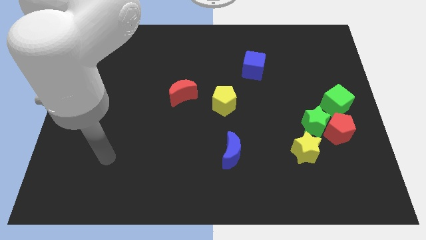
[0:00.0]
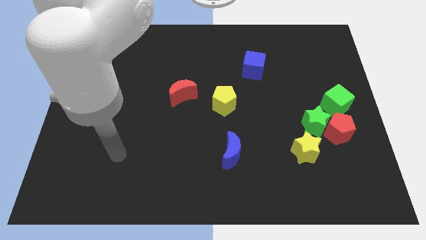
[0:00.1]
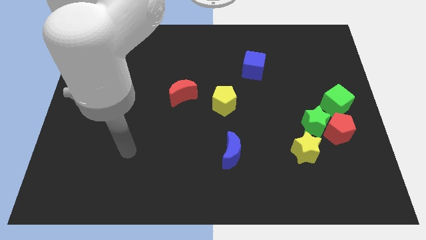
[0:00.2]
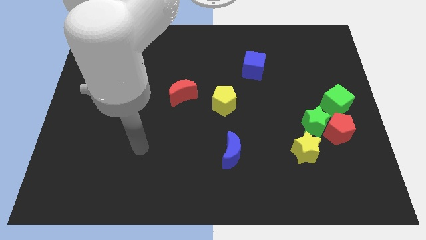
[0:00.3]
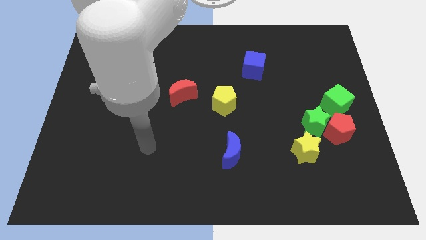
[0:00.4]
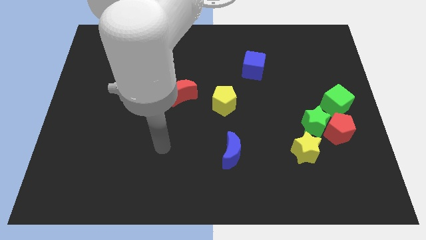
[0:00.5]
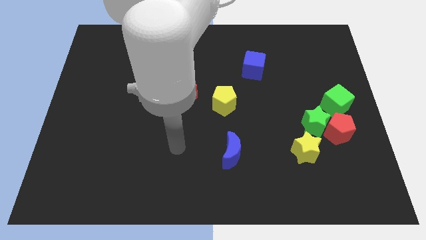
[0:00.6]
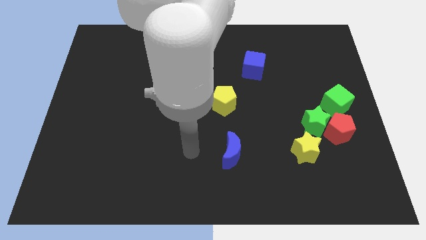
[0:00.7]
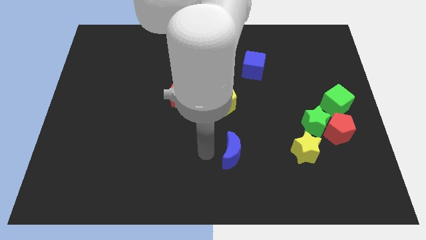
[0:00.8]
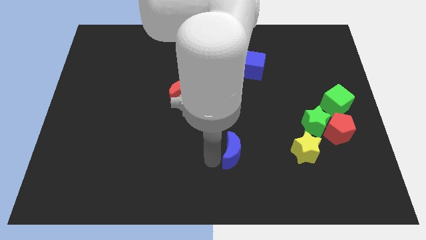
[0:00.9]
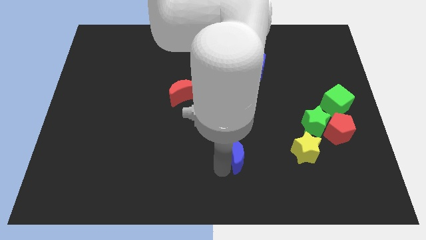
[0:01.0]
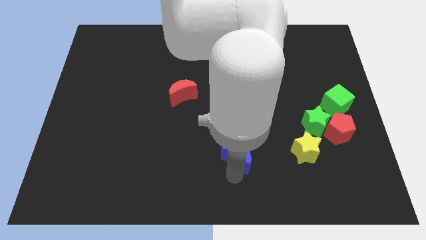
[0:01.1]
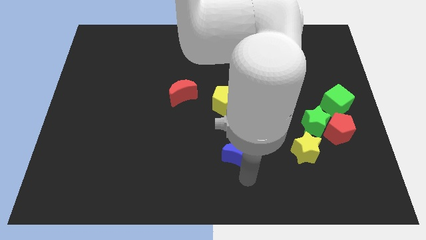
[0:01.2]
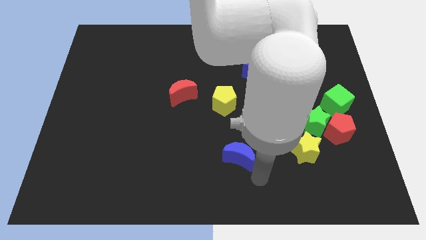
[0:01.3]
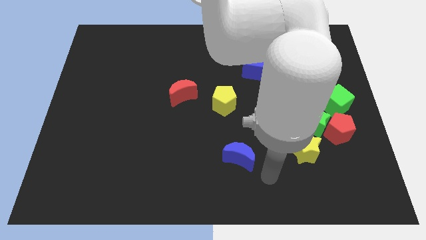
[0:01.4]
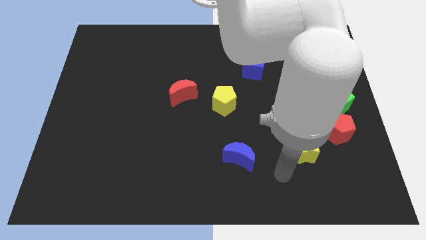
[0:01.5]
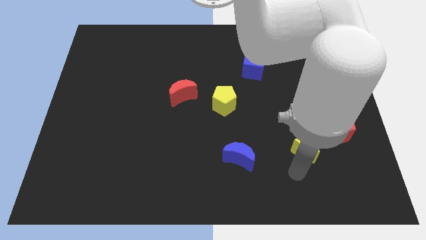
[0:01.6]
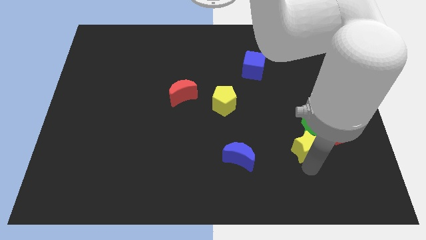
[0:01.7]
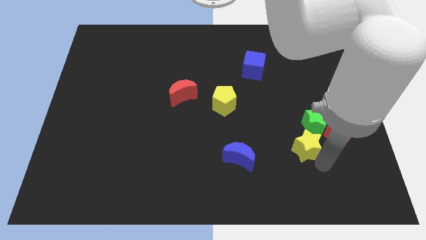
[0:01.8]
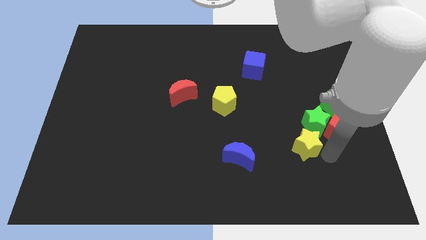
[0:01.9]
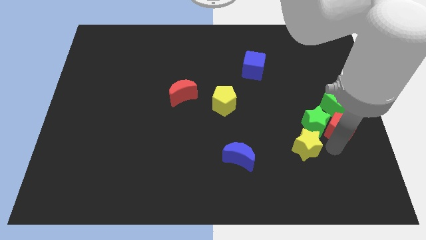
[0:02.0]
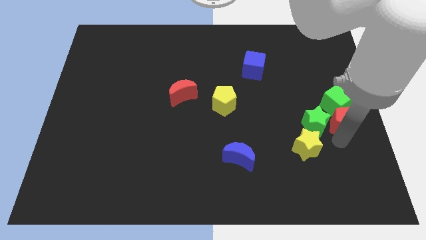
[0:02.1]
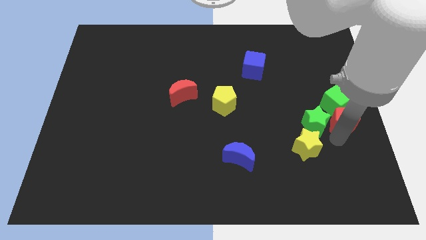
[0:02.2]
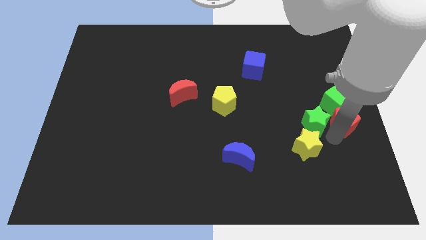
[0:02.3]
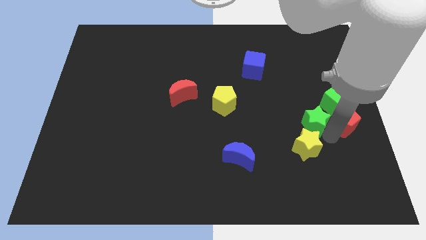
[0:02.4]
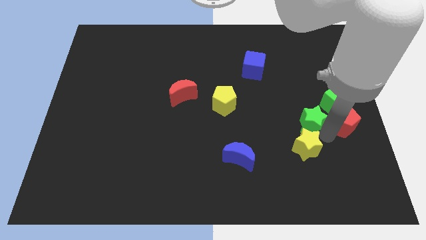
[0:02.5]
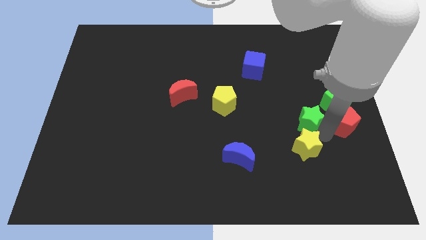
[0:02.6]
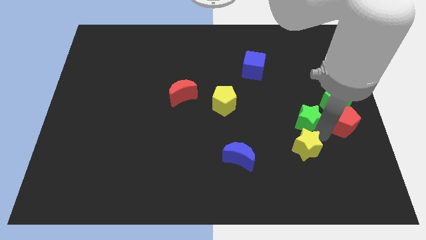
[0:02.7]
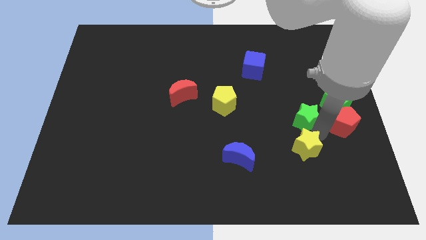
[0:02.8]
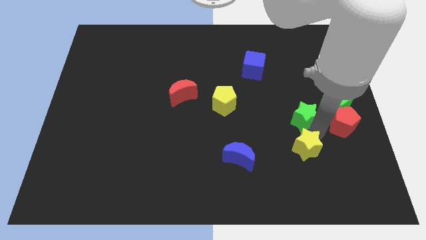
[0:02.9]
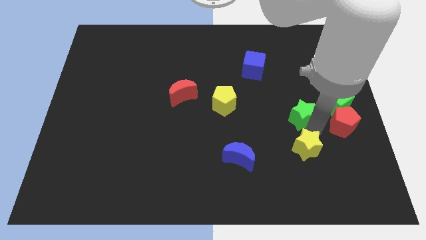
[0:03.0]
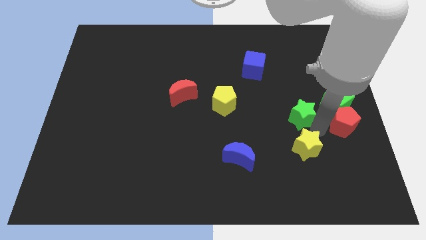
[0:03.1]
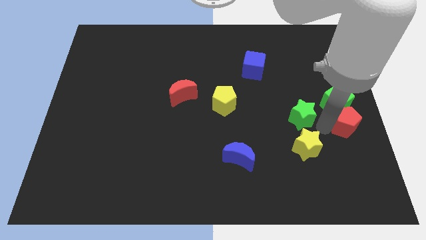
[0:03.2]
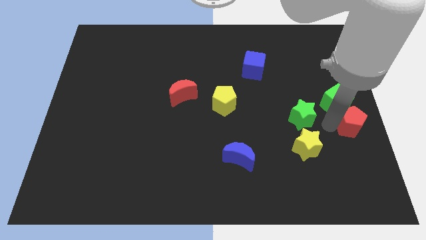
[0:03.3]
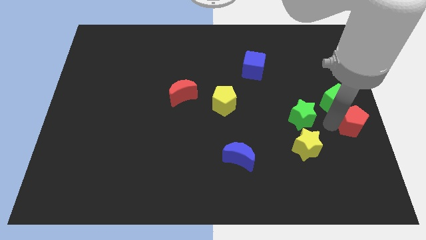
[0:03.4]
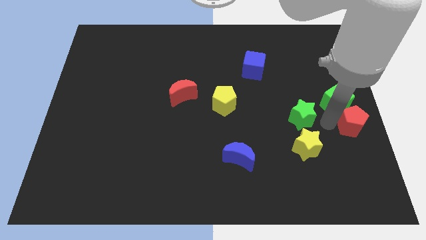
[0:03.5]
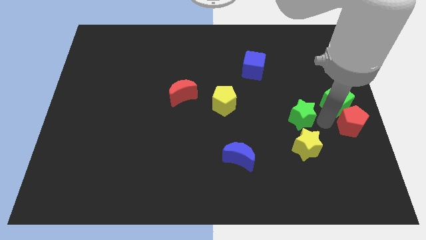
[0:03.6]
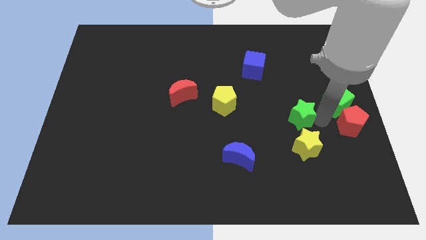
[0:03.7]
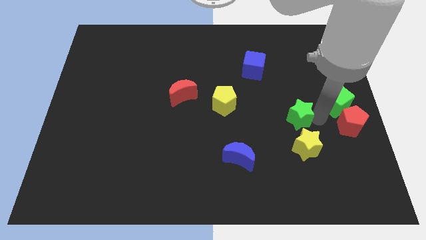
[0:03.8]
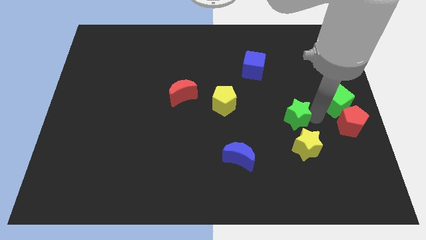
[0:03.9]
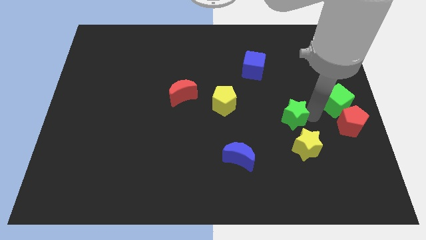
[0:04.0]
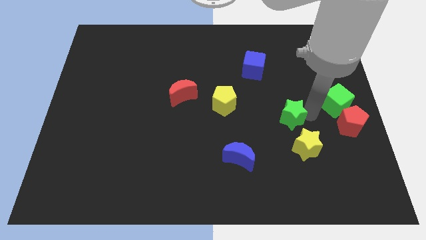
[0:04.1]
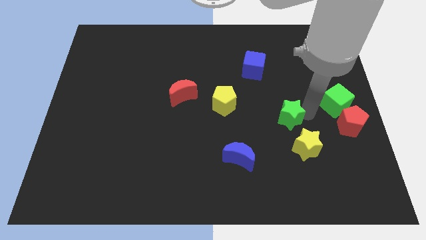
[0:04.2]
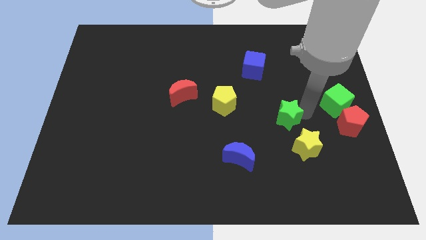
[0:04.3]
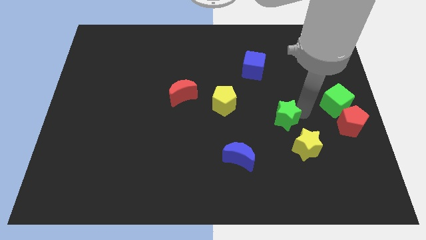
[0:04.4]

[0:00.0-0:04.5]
pull the green star apart from the red pentagon, yellow star, and green cube

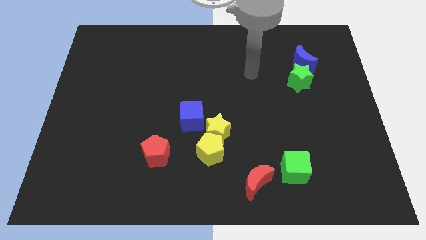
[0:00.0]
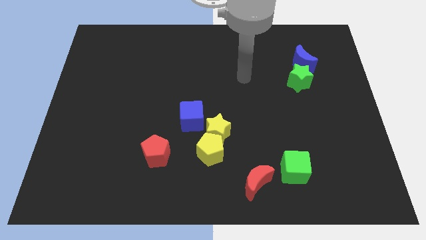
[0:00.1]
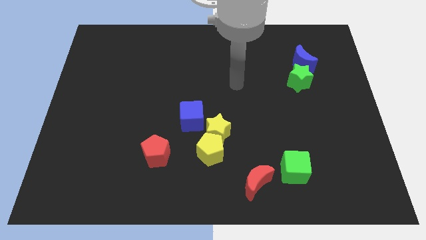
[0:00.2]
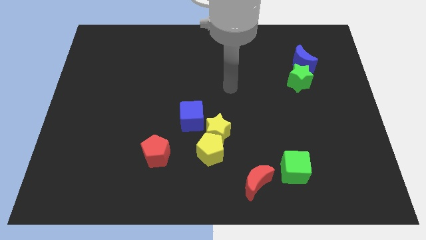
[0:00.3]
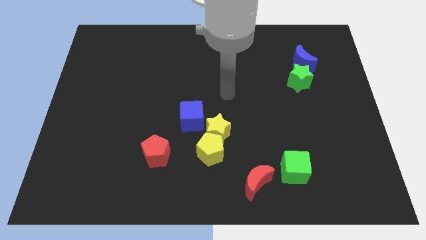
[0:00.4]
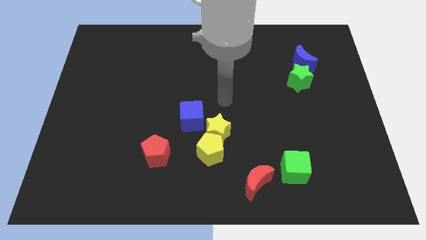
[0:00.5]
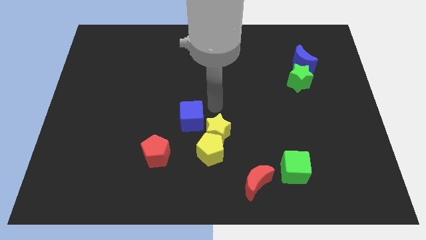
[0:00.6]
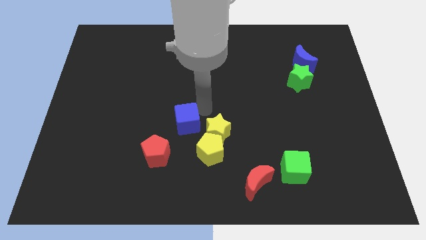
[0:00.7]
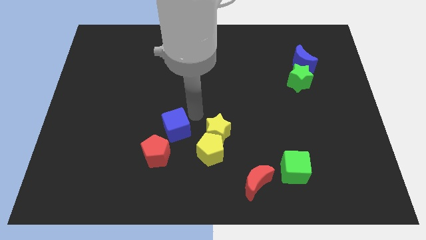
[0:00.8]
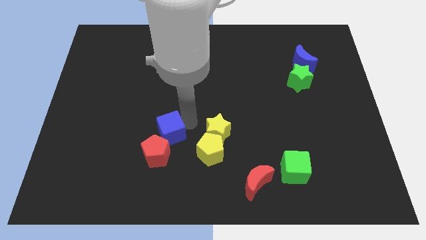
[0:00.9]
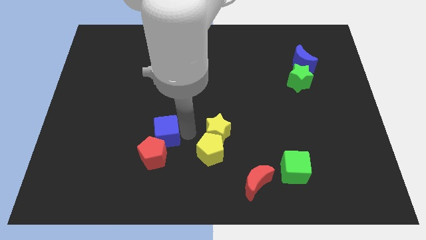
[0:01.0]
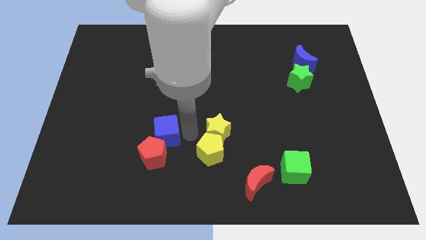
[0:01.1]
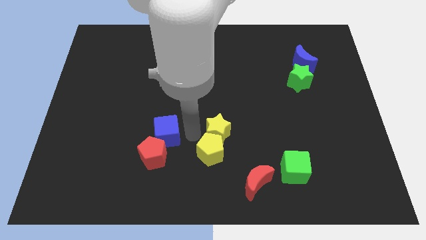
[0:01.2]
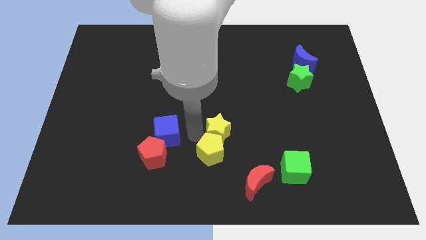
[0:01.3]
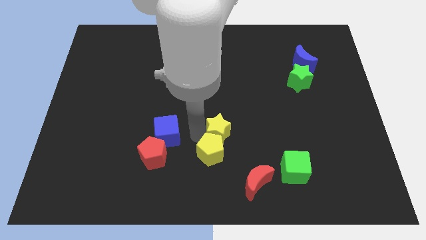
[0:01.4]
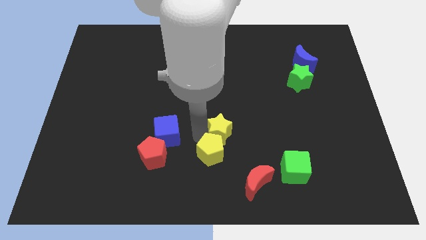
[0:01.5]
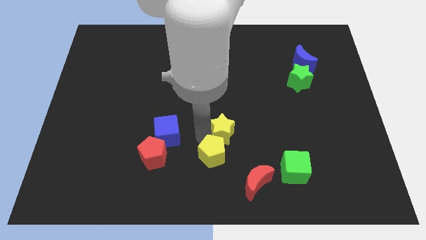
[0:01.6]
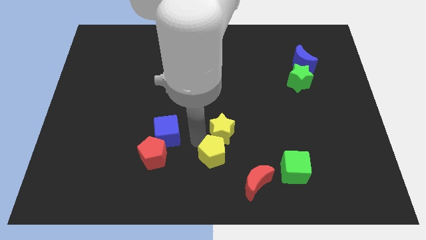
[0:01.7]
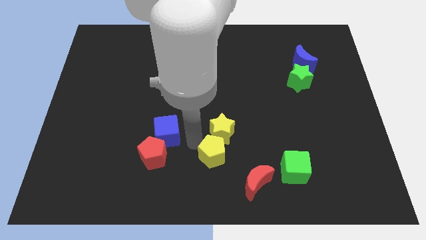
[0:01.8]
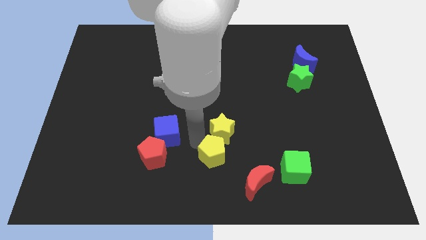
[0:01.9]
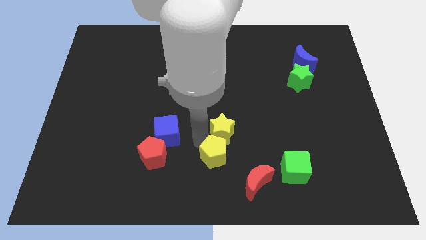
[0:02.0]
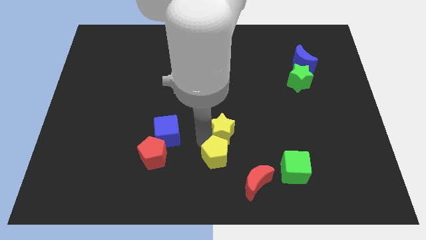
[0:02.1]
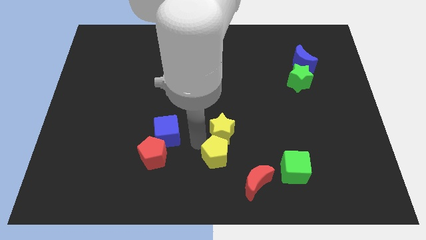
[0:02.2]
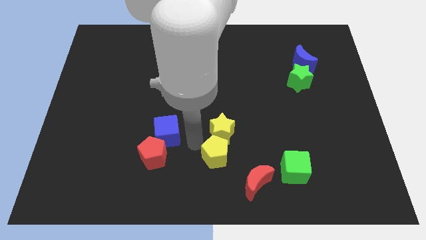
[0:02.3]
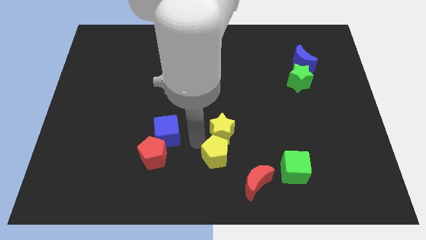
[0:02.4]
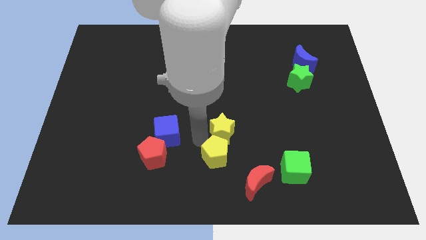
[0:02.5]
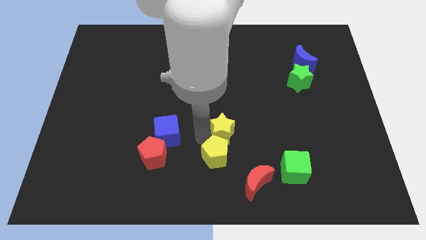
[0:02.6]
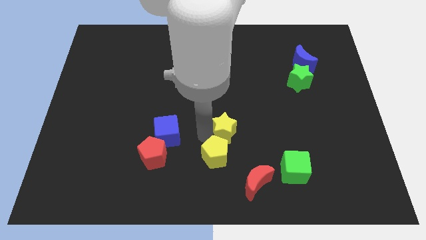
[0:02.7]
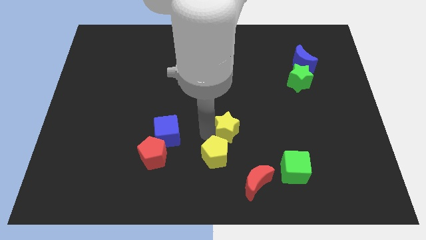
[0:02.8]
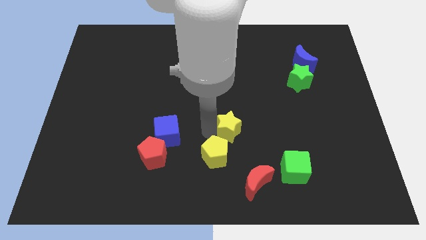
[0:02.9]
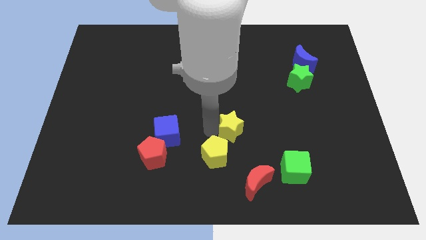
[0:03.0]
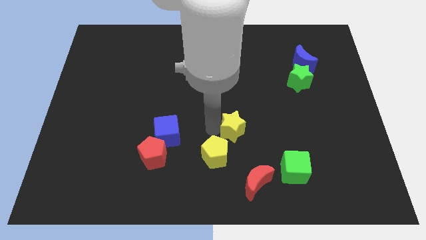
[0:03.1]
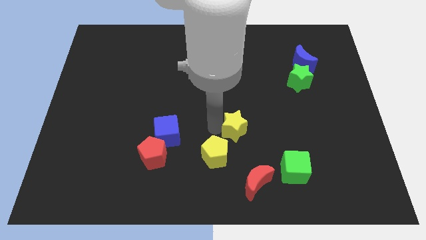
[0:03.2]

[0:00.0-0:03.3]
separate the yellow star from the yellow pentagon and blue cube

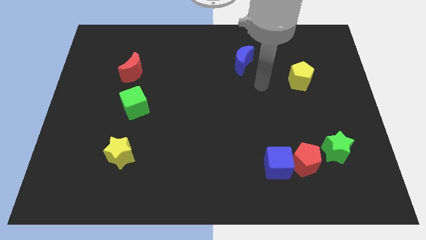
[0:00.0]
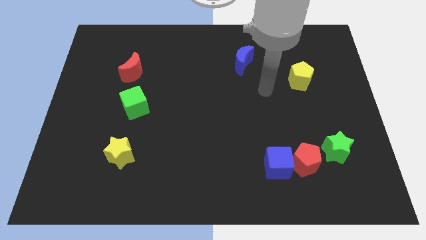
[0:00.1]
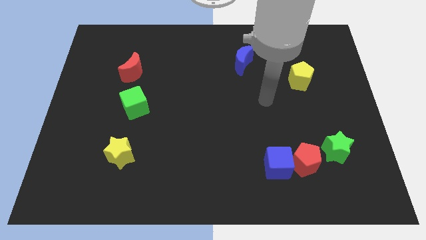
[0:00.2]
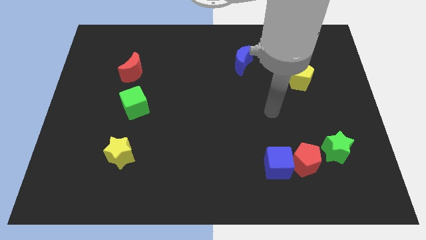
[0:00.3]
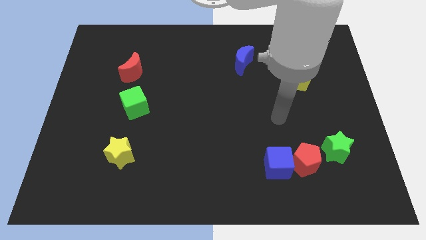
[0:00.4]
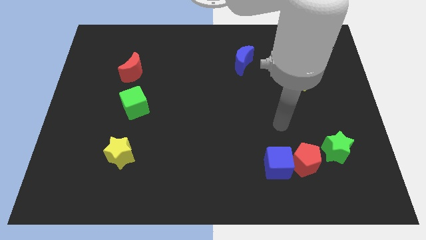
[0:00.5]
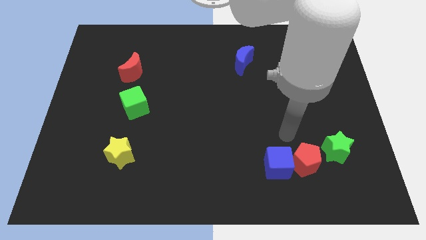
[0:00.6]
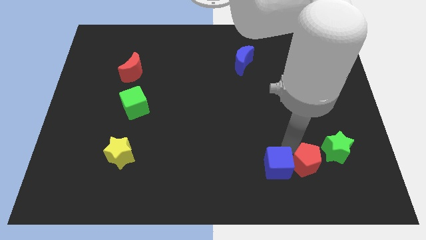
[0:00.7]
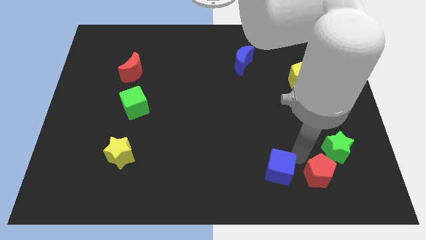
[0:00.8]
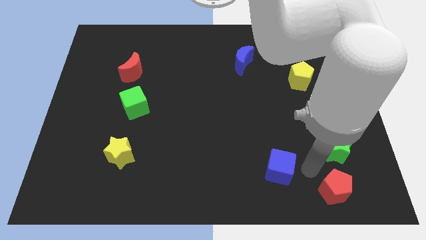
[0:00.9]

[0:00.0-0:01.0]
move the blue cube away from the red pentagon

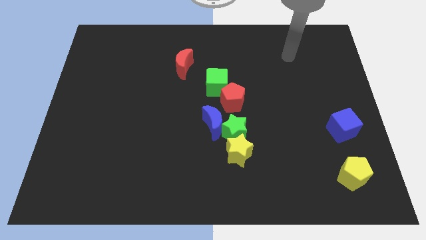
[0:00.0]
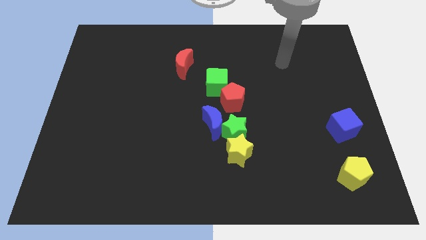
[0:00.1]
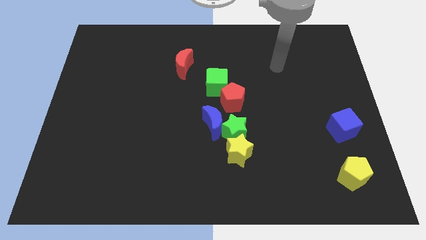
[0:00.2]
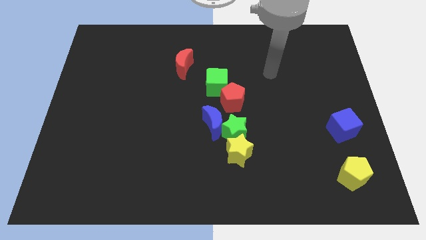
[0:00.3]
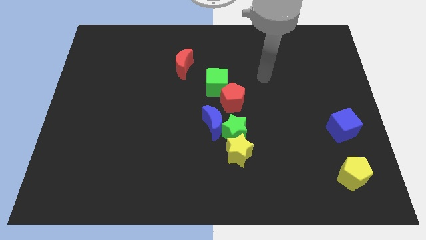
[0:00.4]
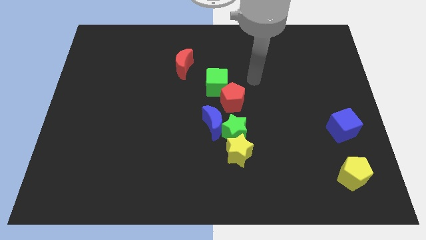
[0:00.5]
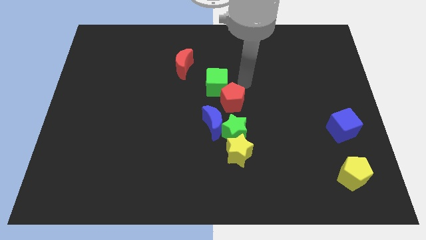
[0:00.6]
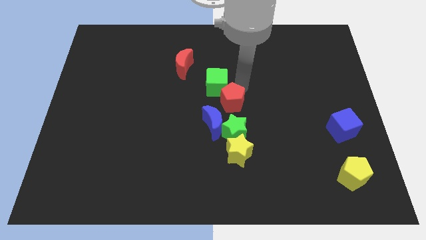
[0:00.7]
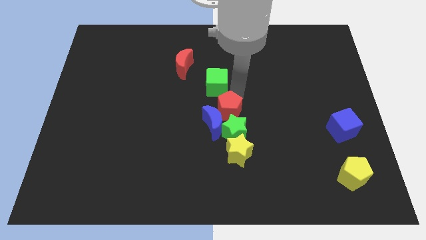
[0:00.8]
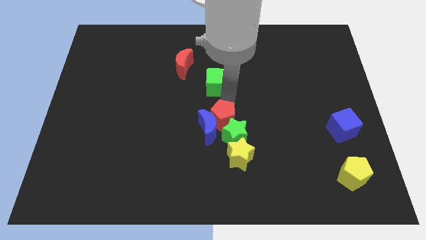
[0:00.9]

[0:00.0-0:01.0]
pull the green cube apart from the red pentagon
